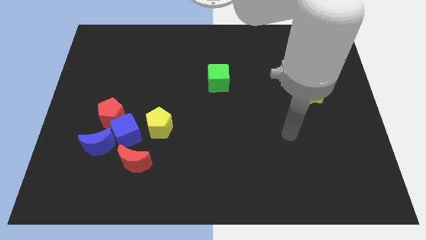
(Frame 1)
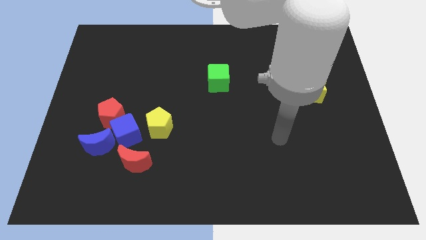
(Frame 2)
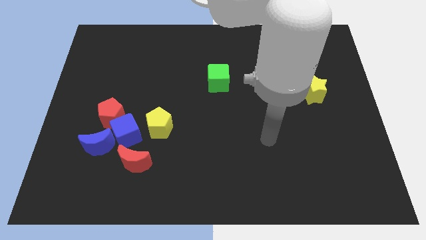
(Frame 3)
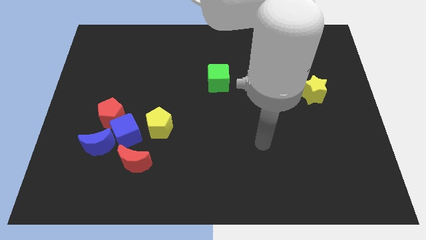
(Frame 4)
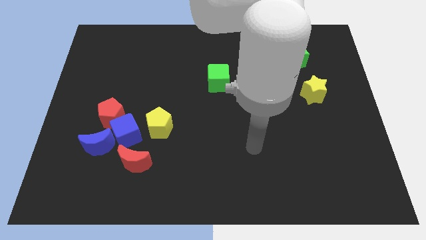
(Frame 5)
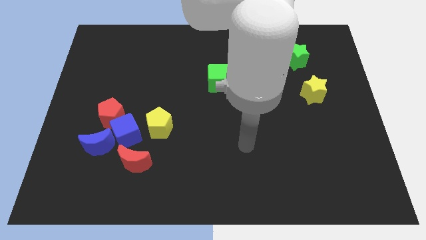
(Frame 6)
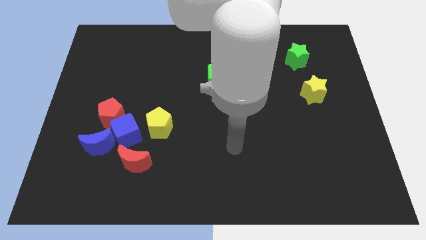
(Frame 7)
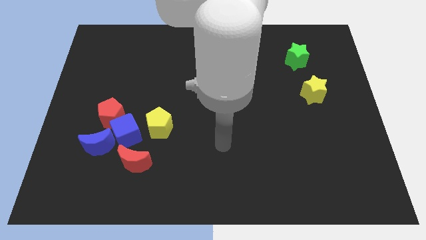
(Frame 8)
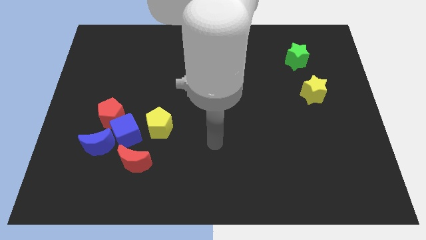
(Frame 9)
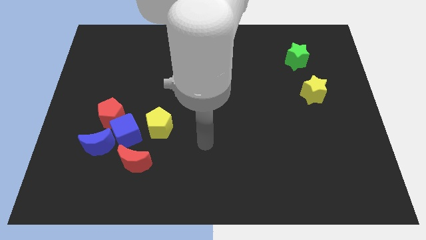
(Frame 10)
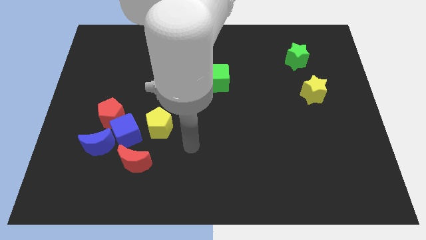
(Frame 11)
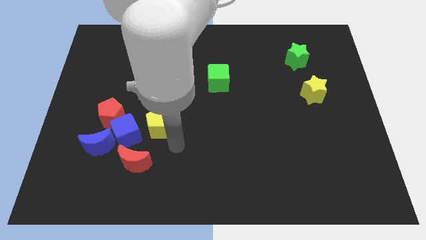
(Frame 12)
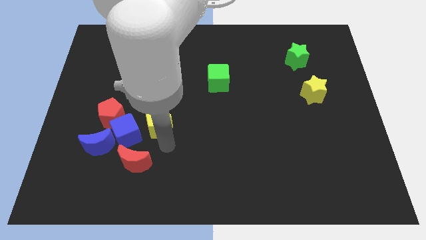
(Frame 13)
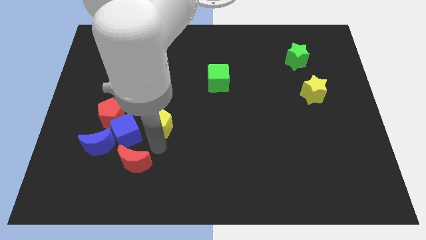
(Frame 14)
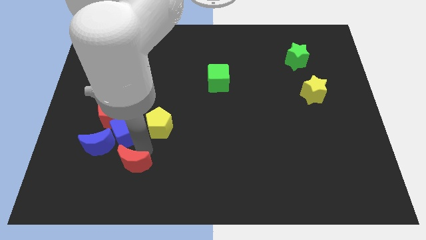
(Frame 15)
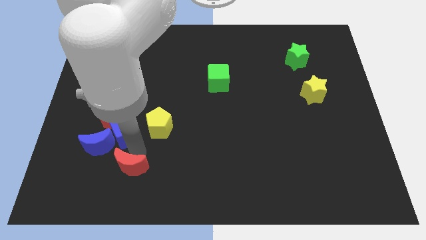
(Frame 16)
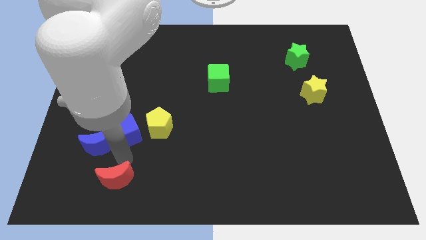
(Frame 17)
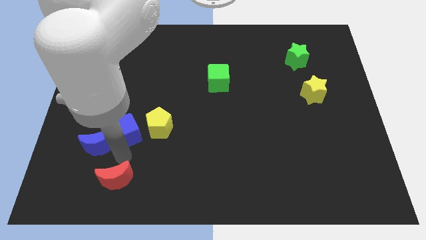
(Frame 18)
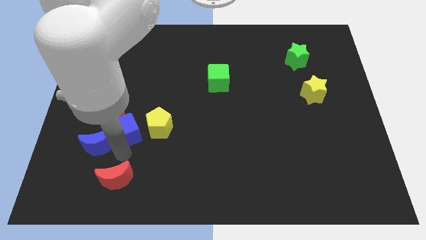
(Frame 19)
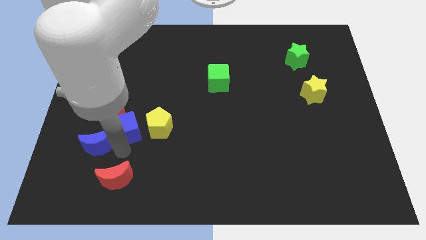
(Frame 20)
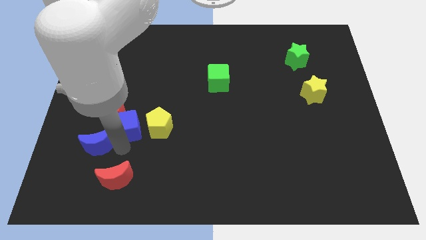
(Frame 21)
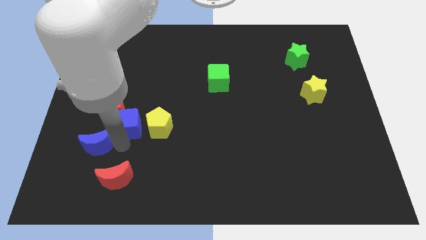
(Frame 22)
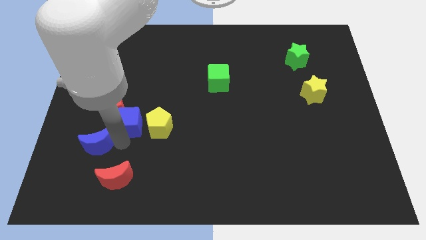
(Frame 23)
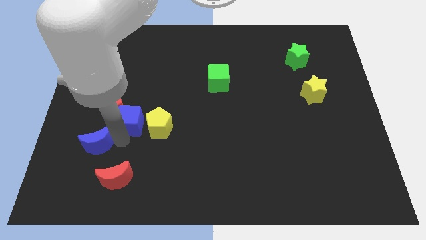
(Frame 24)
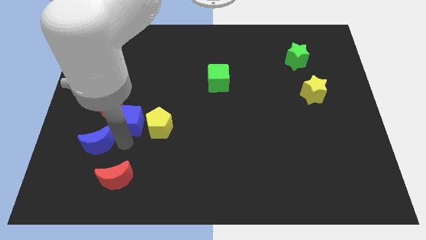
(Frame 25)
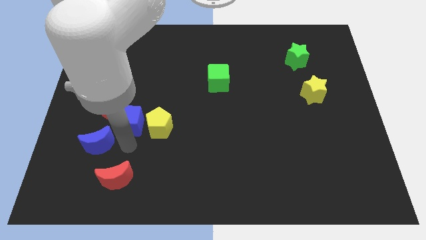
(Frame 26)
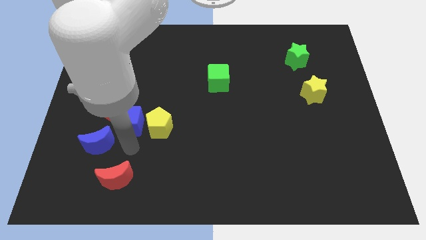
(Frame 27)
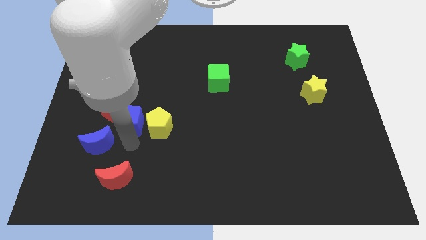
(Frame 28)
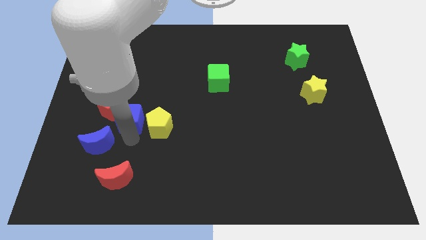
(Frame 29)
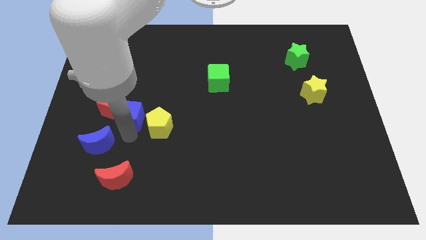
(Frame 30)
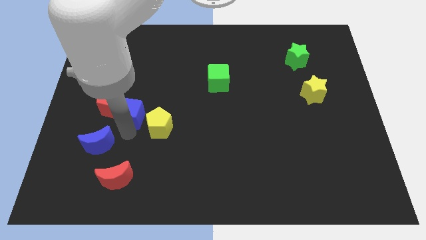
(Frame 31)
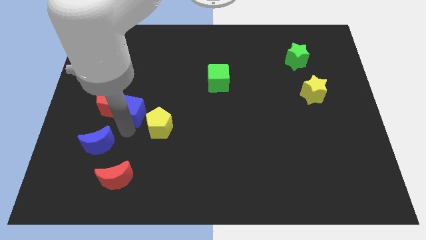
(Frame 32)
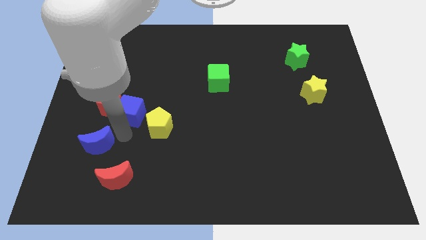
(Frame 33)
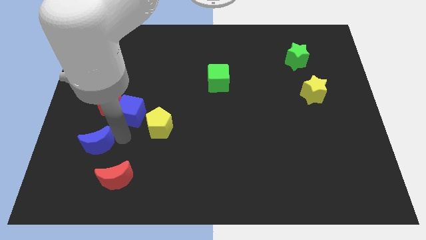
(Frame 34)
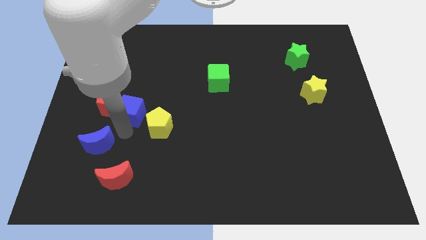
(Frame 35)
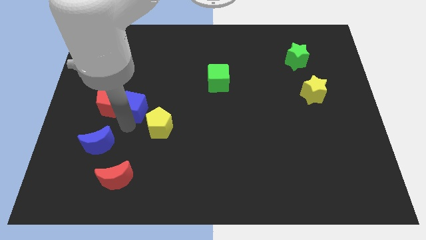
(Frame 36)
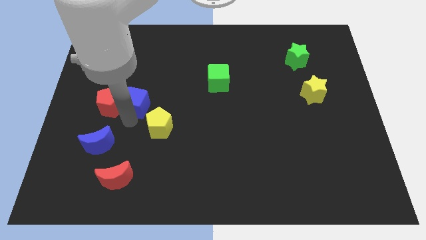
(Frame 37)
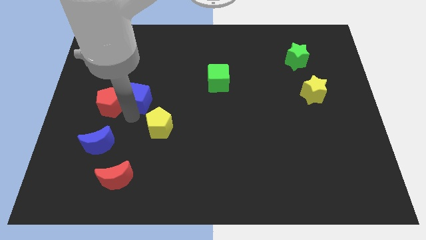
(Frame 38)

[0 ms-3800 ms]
move the blue cube away from the group of blocks

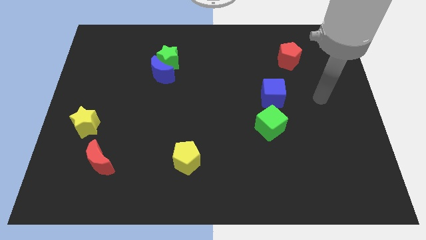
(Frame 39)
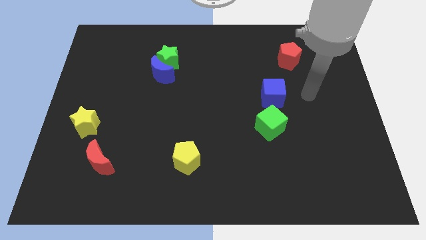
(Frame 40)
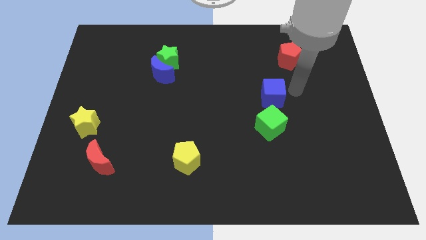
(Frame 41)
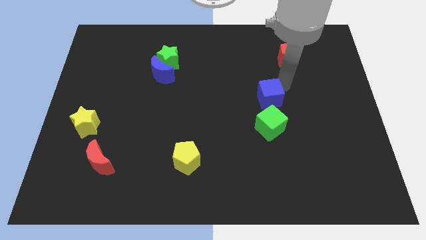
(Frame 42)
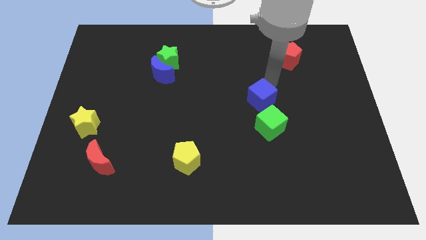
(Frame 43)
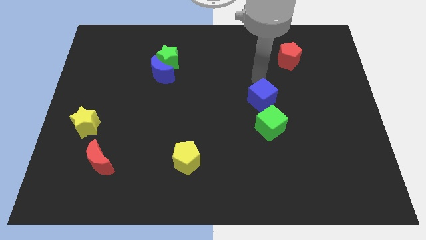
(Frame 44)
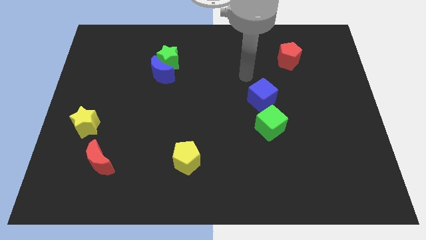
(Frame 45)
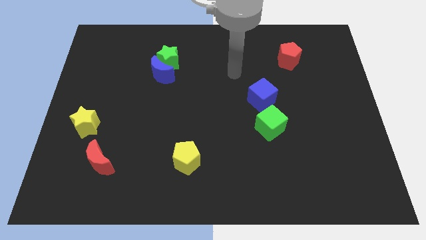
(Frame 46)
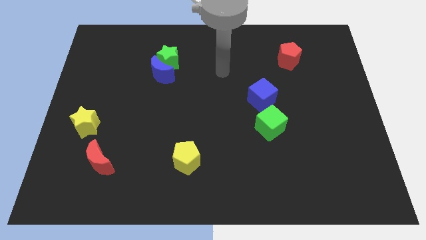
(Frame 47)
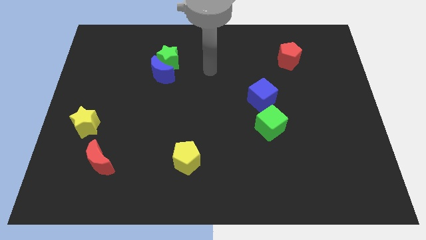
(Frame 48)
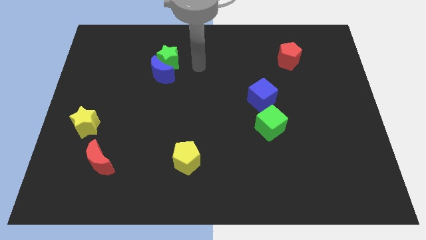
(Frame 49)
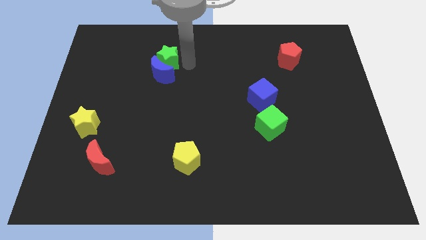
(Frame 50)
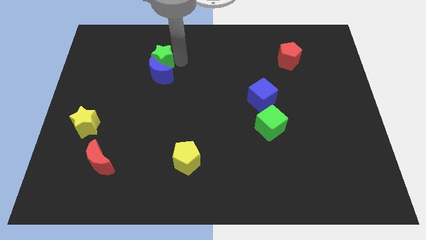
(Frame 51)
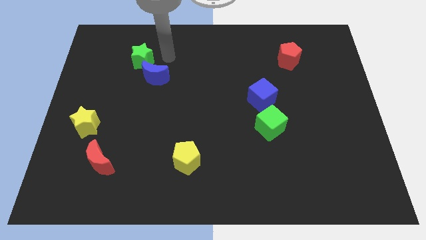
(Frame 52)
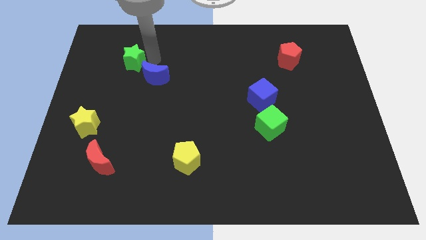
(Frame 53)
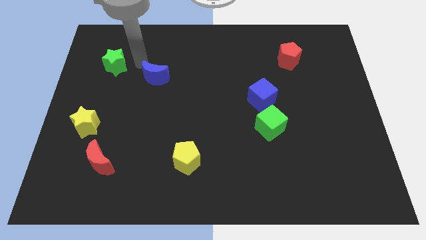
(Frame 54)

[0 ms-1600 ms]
separate the blue moon from the green star

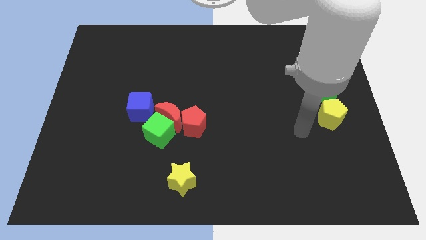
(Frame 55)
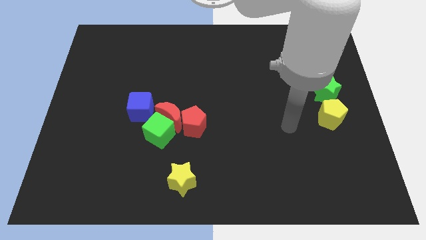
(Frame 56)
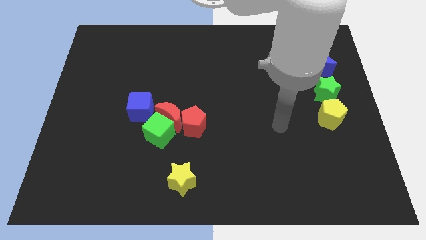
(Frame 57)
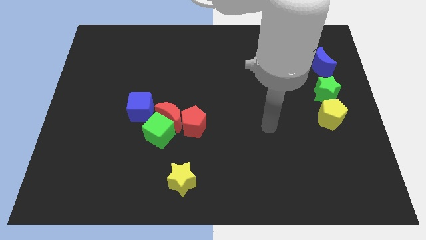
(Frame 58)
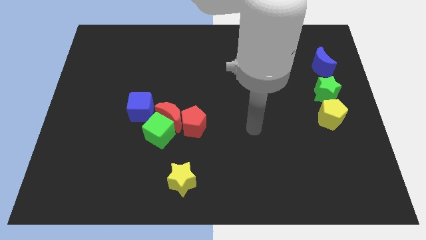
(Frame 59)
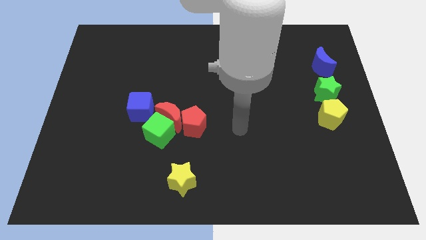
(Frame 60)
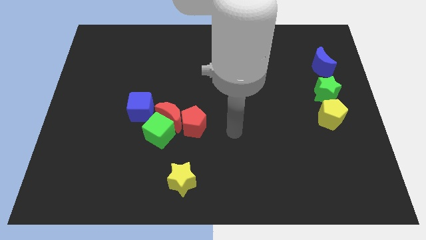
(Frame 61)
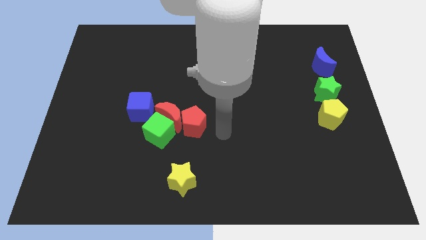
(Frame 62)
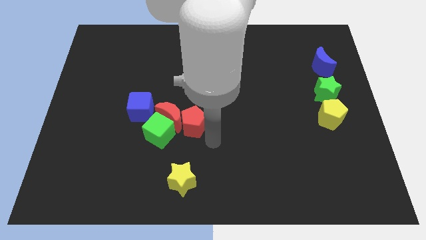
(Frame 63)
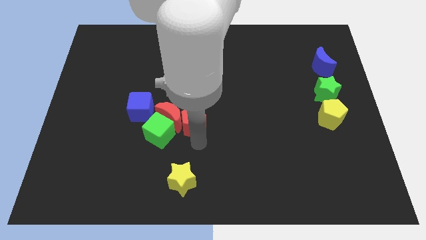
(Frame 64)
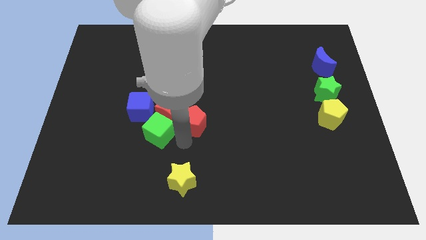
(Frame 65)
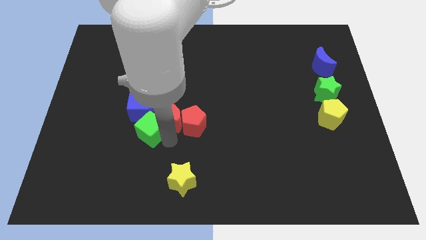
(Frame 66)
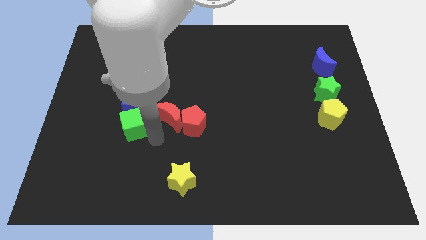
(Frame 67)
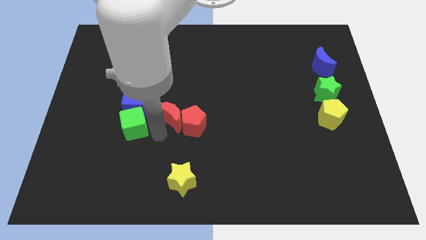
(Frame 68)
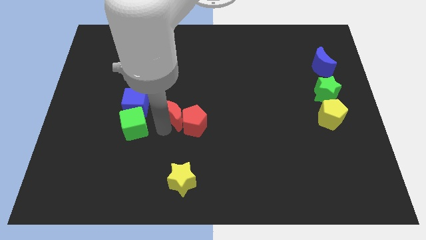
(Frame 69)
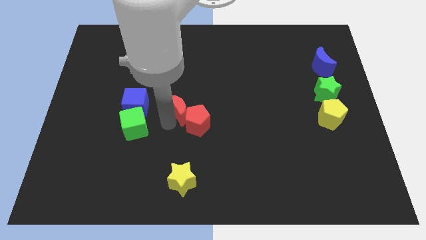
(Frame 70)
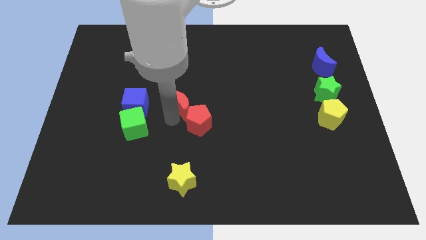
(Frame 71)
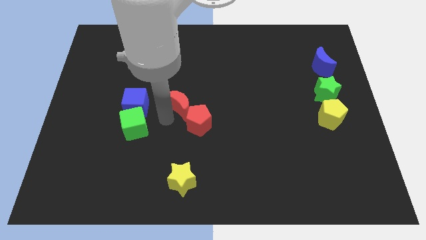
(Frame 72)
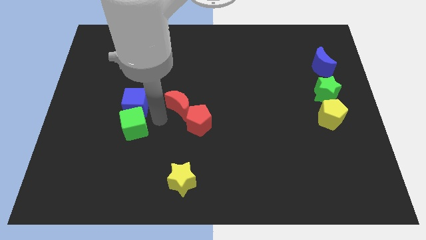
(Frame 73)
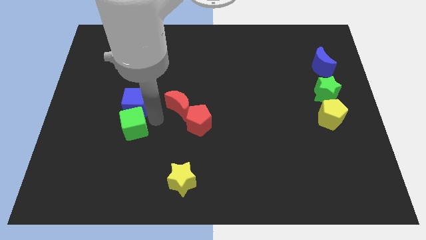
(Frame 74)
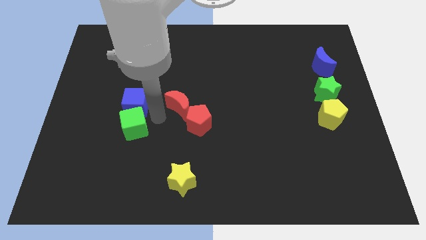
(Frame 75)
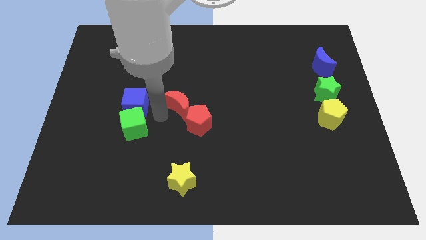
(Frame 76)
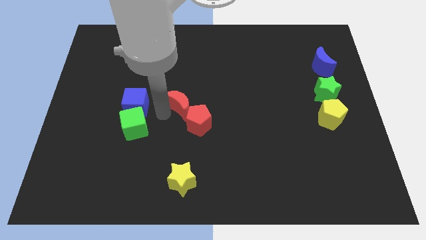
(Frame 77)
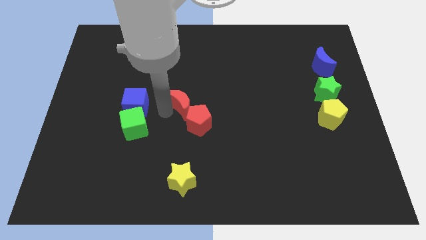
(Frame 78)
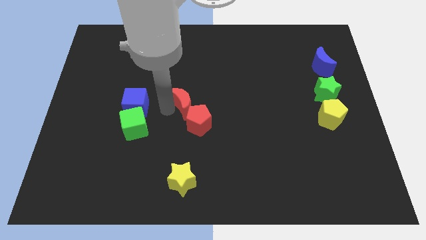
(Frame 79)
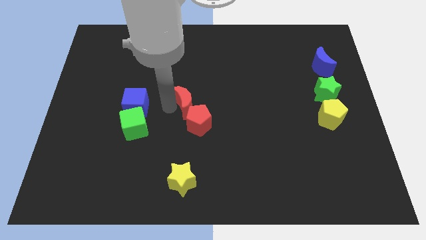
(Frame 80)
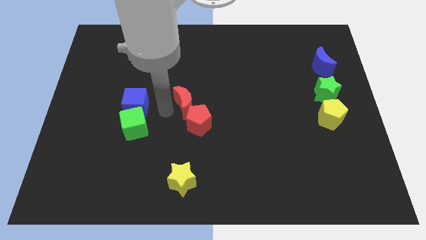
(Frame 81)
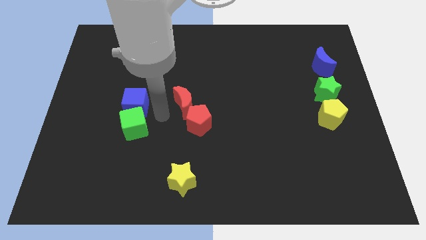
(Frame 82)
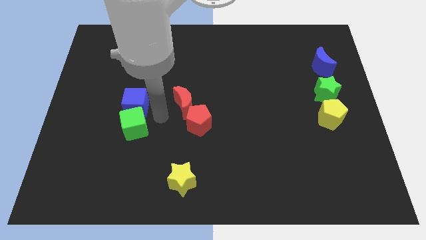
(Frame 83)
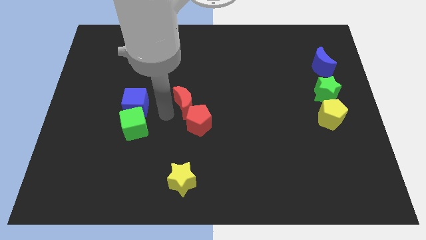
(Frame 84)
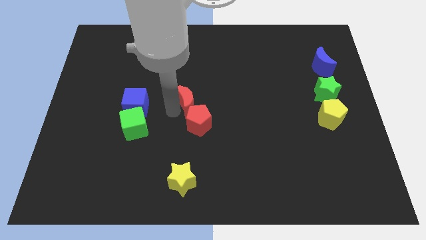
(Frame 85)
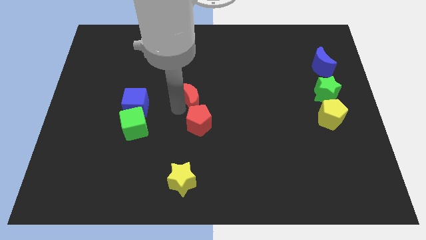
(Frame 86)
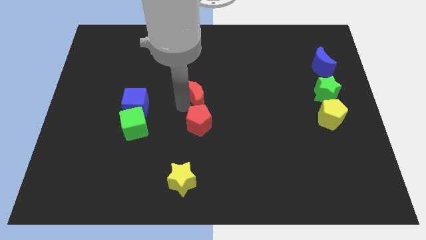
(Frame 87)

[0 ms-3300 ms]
pull the red moon apart from the group of blocks

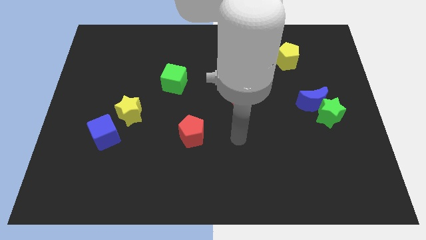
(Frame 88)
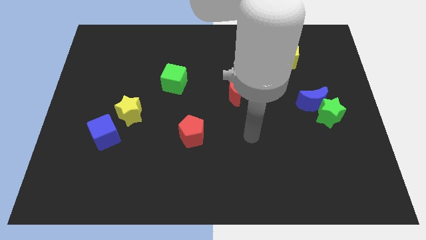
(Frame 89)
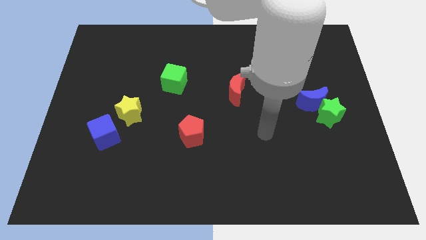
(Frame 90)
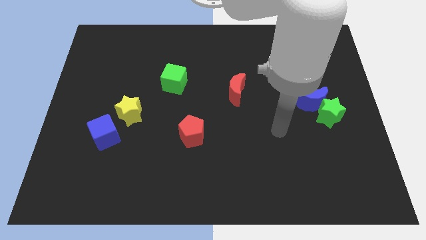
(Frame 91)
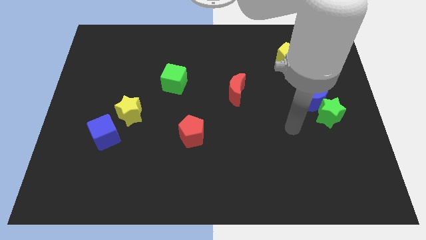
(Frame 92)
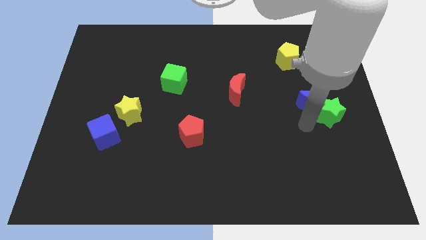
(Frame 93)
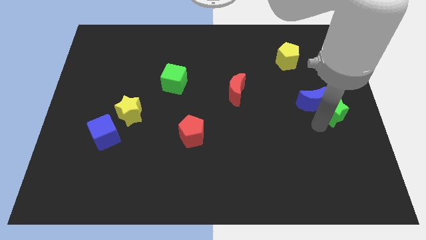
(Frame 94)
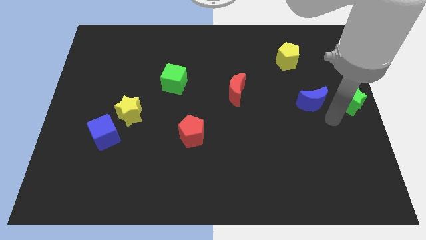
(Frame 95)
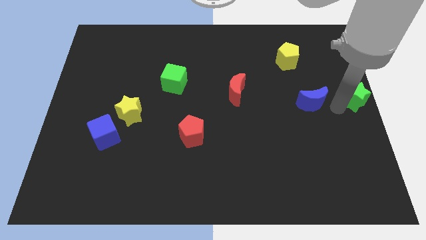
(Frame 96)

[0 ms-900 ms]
move the blue moon away from the green star
